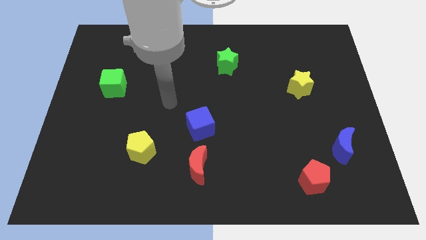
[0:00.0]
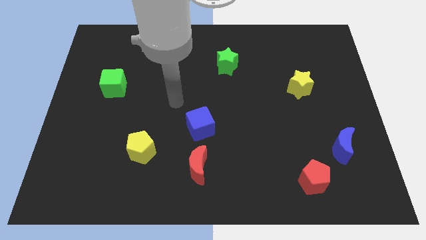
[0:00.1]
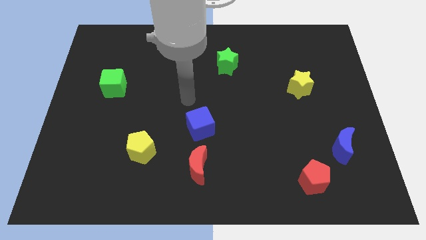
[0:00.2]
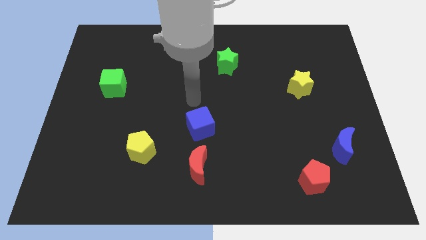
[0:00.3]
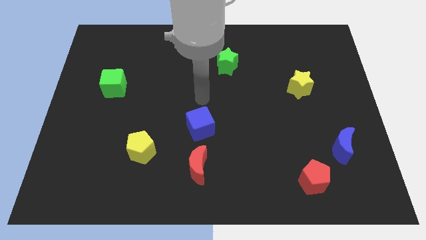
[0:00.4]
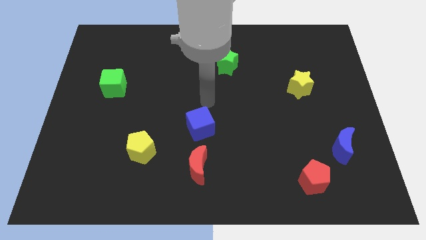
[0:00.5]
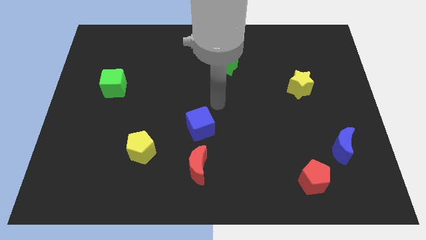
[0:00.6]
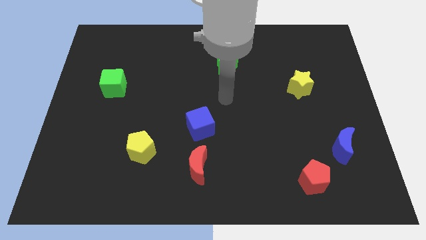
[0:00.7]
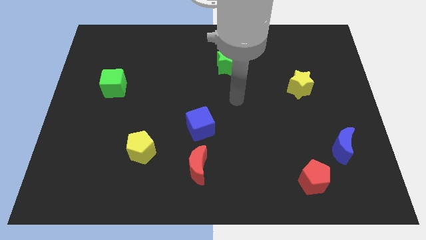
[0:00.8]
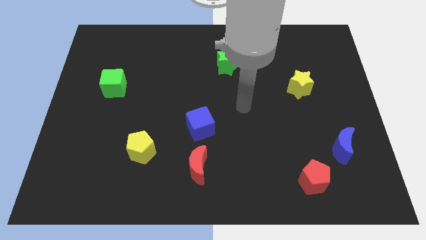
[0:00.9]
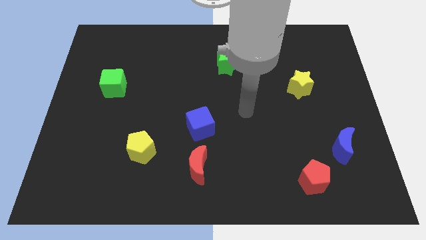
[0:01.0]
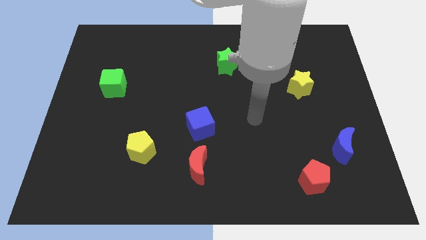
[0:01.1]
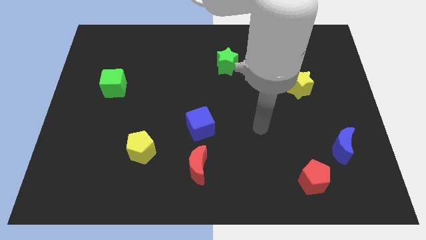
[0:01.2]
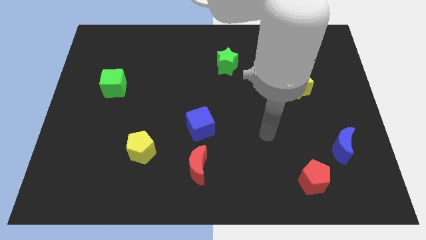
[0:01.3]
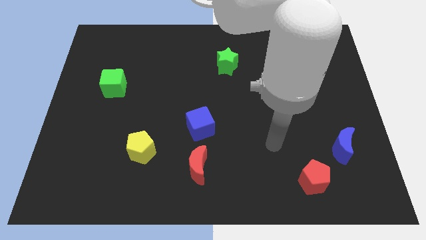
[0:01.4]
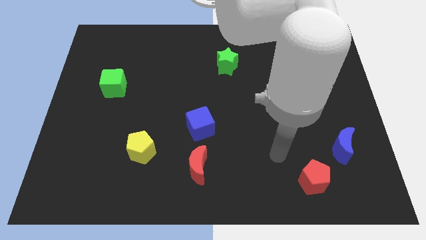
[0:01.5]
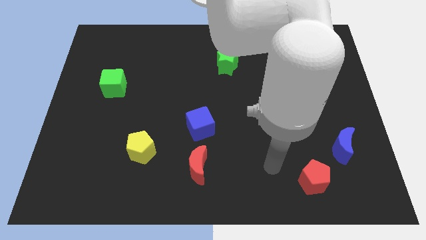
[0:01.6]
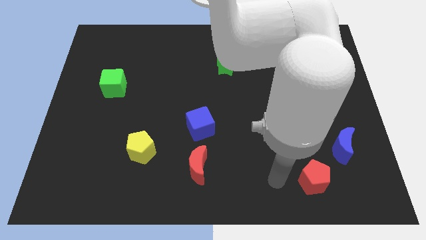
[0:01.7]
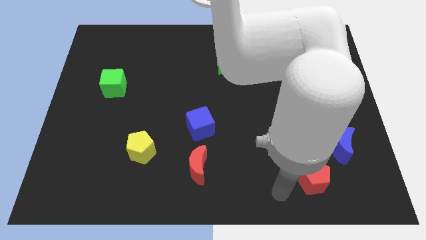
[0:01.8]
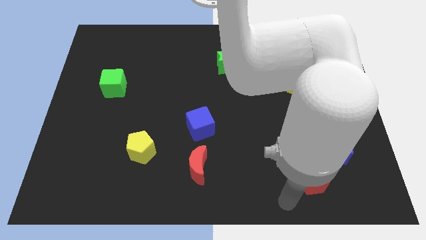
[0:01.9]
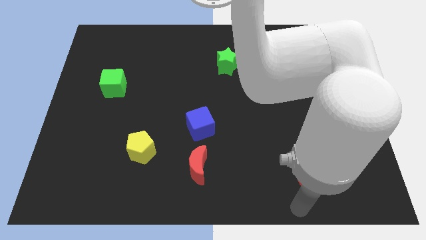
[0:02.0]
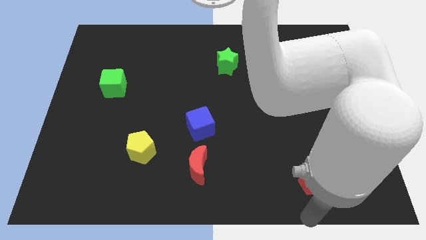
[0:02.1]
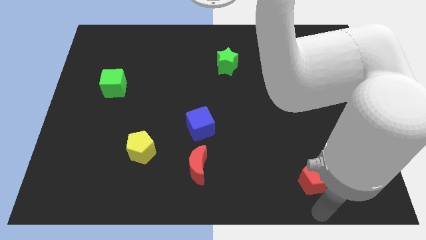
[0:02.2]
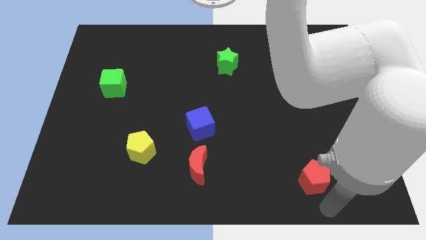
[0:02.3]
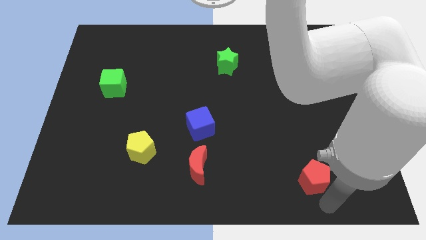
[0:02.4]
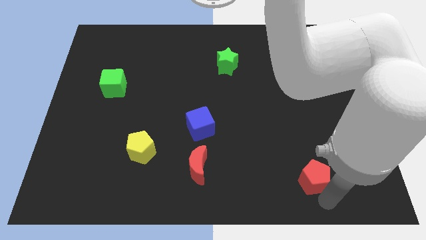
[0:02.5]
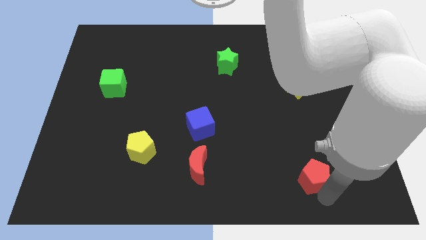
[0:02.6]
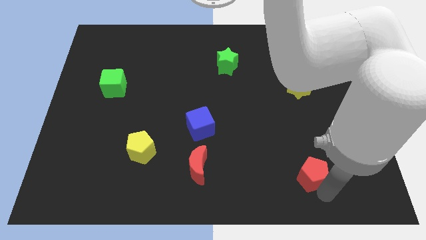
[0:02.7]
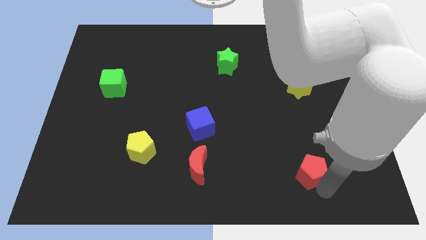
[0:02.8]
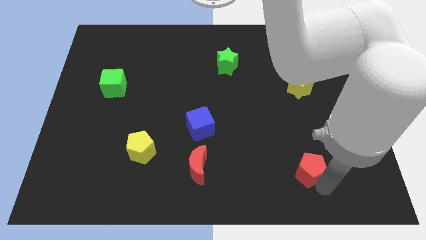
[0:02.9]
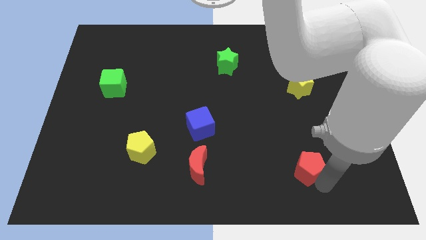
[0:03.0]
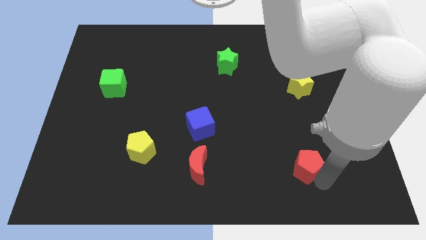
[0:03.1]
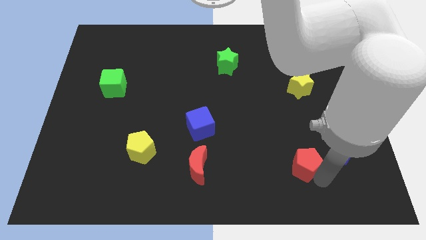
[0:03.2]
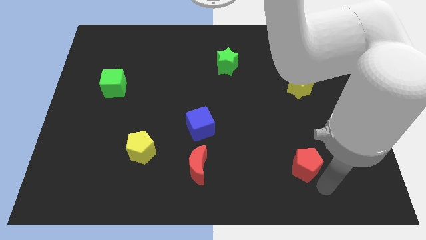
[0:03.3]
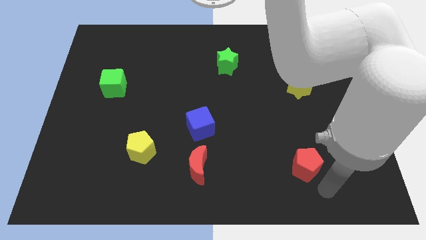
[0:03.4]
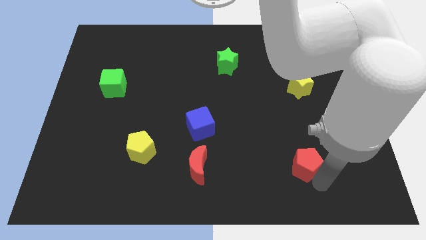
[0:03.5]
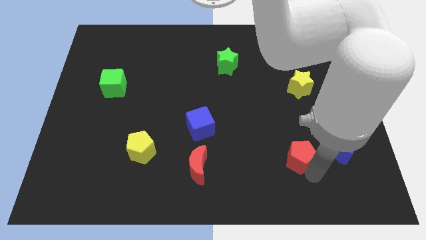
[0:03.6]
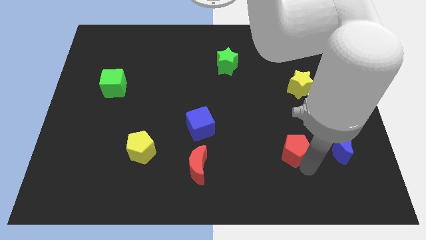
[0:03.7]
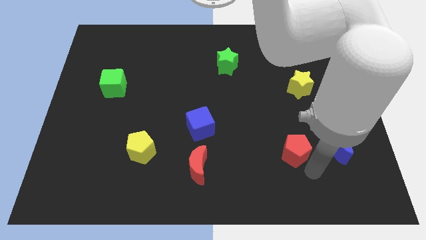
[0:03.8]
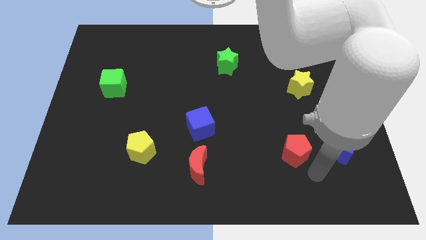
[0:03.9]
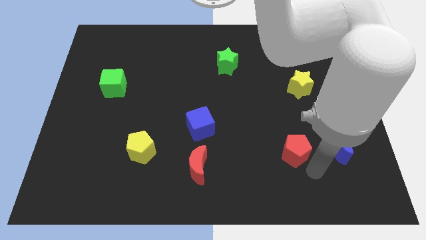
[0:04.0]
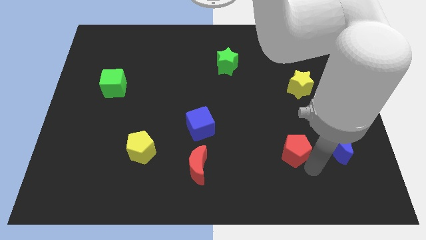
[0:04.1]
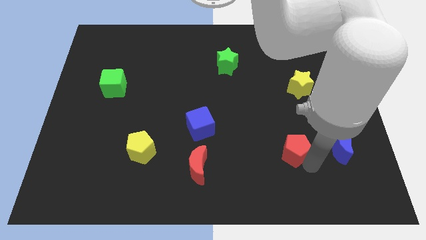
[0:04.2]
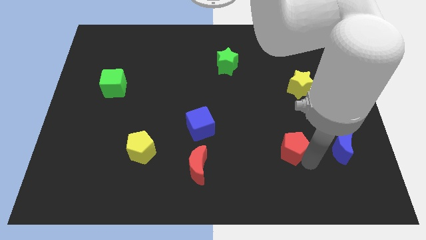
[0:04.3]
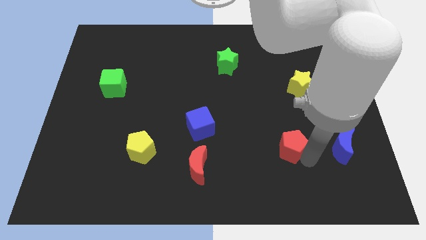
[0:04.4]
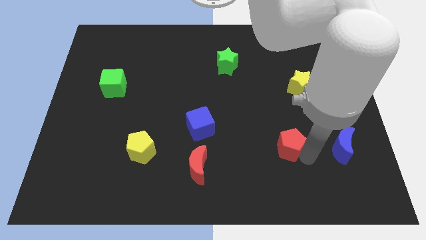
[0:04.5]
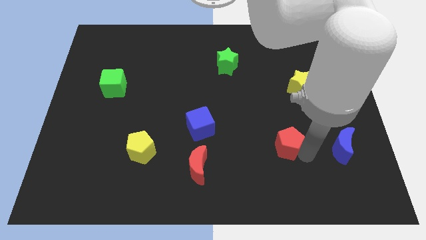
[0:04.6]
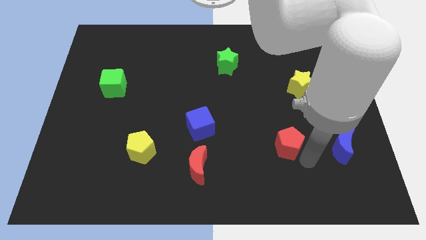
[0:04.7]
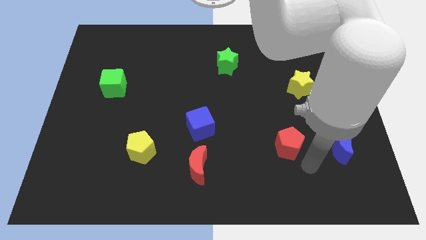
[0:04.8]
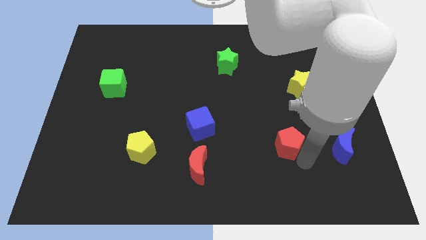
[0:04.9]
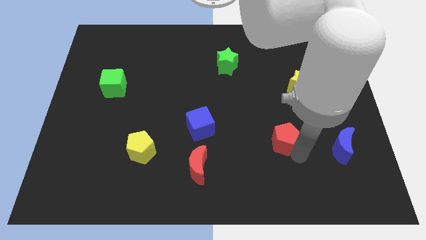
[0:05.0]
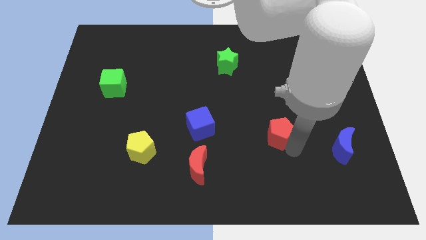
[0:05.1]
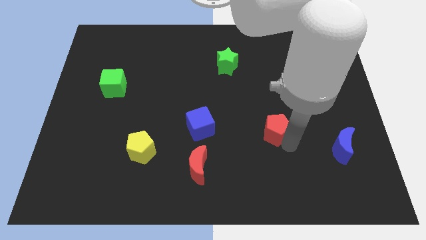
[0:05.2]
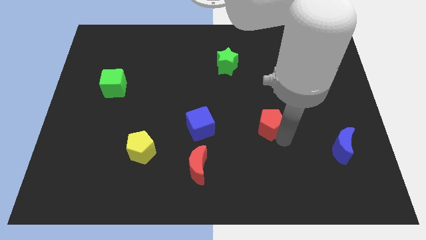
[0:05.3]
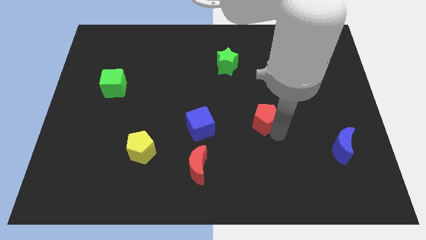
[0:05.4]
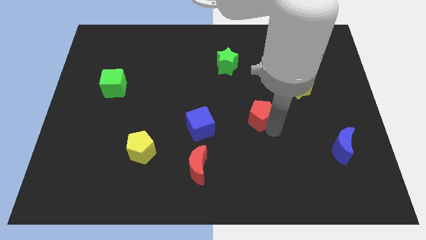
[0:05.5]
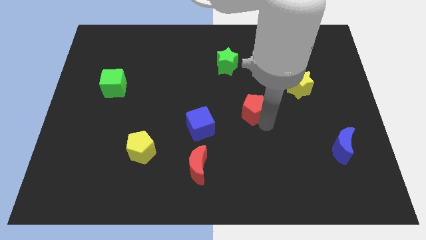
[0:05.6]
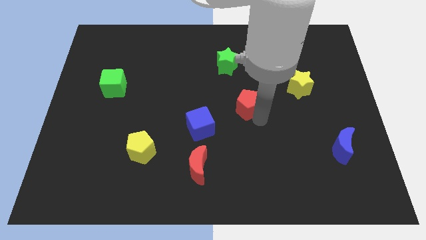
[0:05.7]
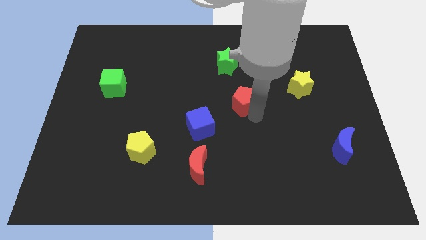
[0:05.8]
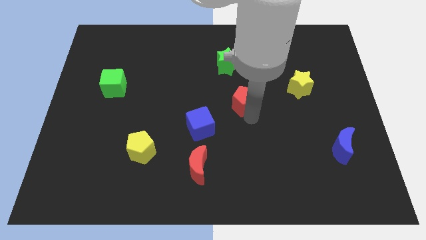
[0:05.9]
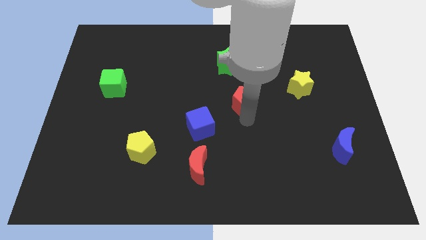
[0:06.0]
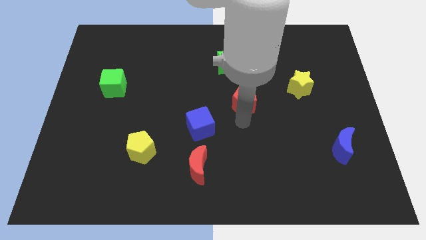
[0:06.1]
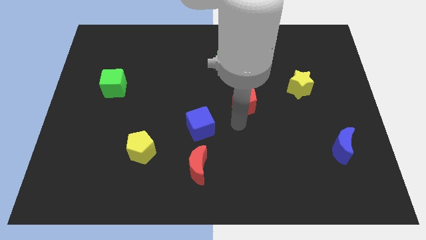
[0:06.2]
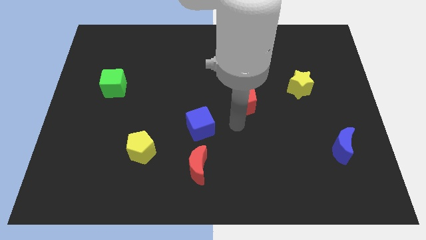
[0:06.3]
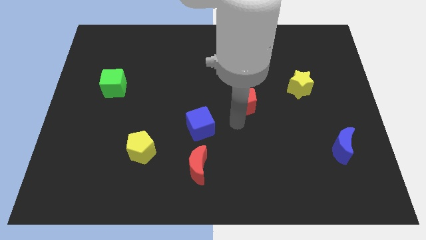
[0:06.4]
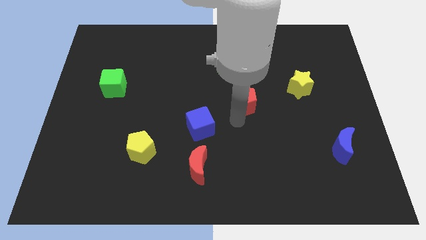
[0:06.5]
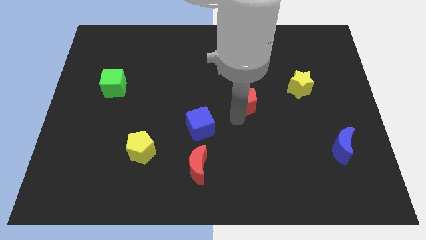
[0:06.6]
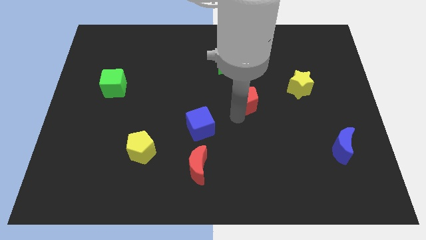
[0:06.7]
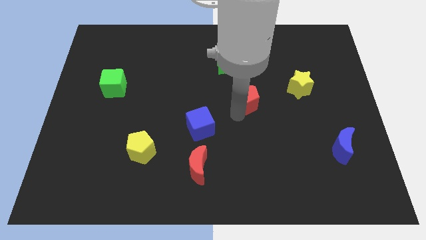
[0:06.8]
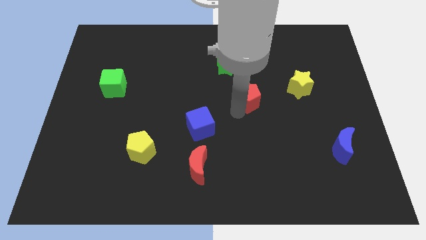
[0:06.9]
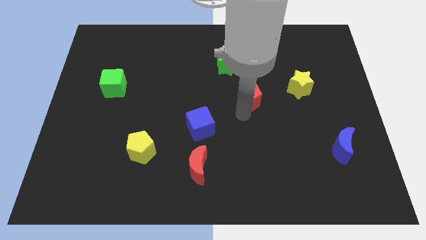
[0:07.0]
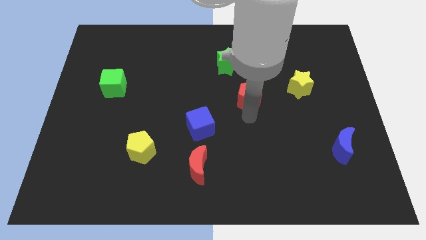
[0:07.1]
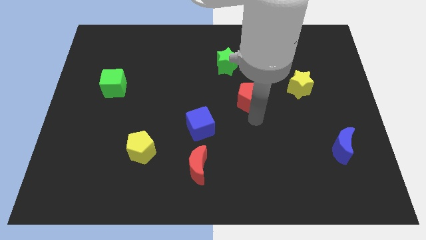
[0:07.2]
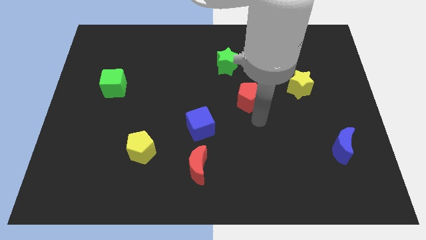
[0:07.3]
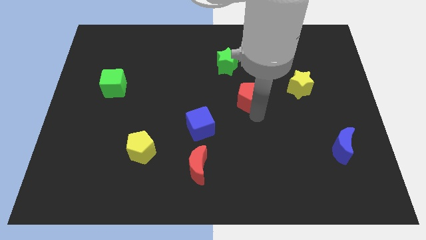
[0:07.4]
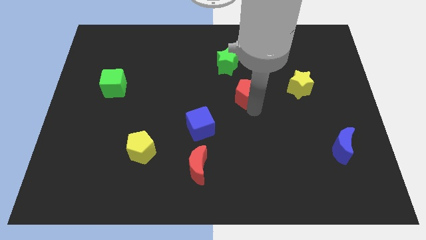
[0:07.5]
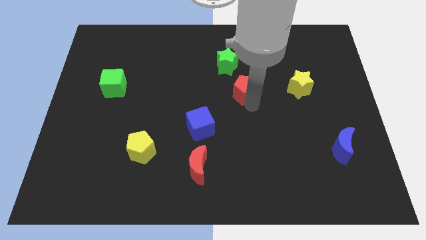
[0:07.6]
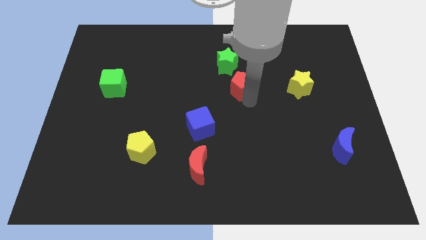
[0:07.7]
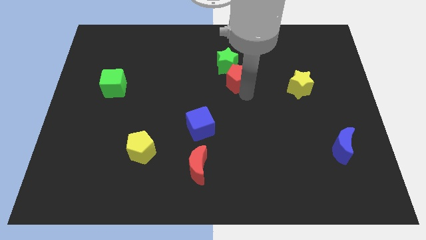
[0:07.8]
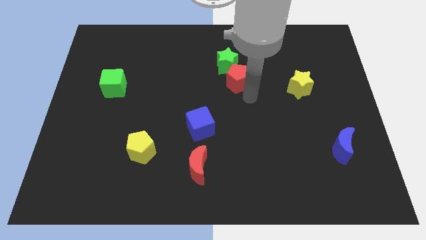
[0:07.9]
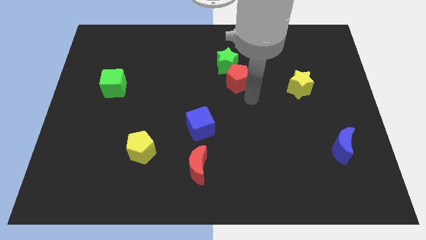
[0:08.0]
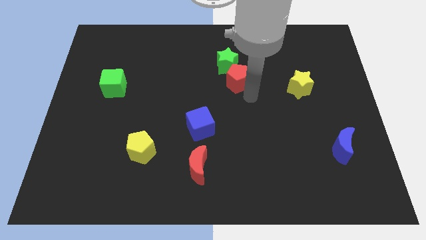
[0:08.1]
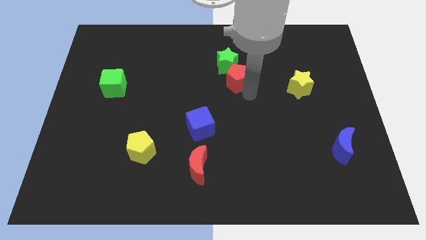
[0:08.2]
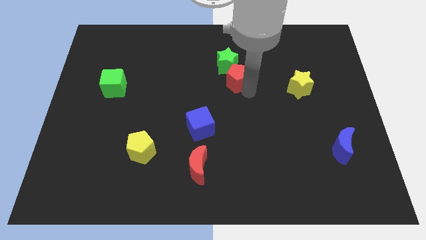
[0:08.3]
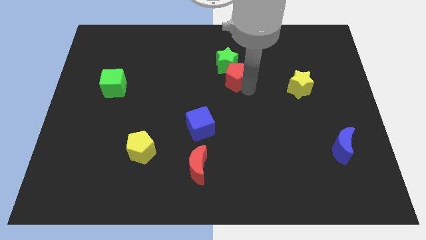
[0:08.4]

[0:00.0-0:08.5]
push the red pentagon next to the green star
